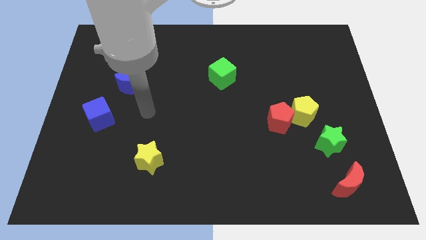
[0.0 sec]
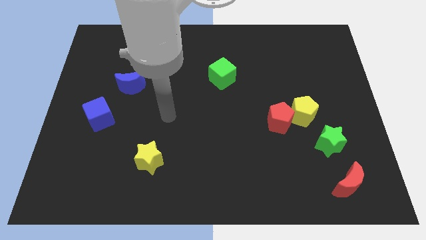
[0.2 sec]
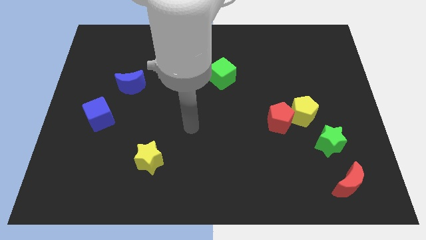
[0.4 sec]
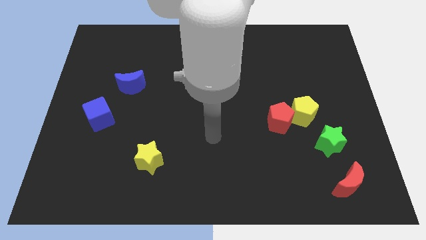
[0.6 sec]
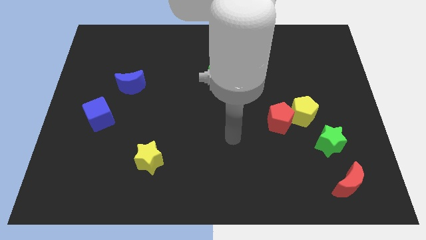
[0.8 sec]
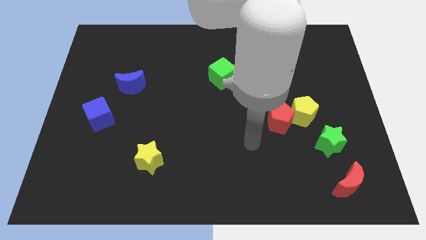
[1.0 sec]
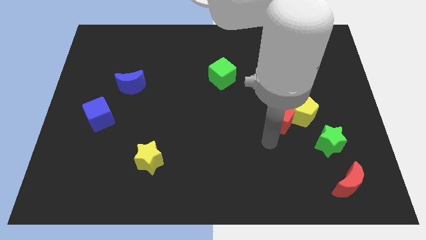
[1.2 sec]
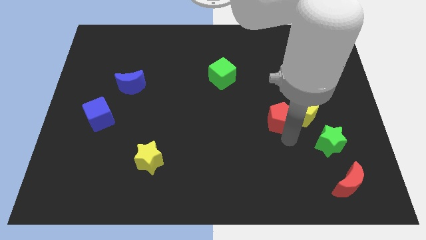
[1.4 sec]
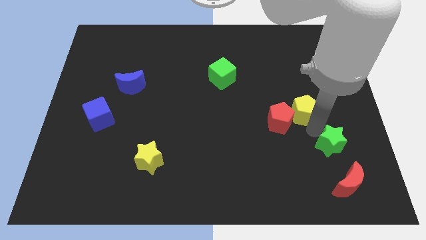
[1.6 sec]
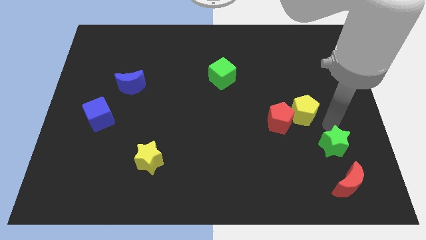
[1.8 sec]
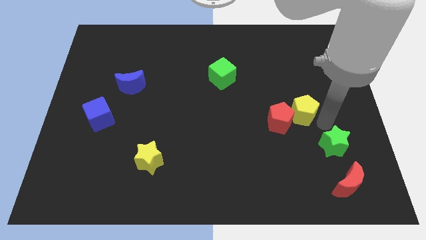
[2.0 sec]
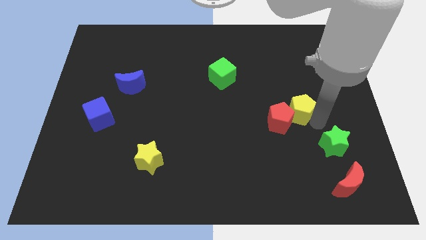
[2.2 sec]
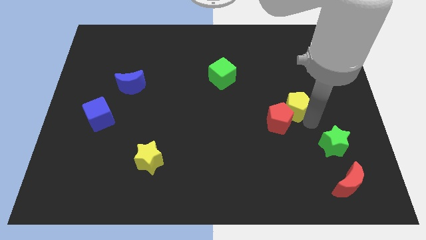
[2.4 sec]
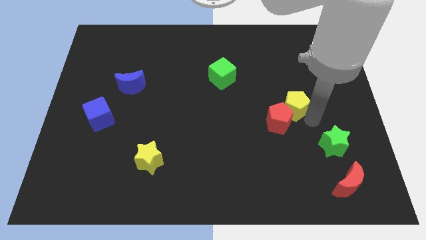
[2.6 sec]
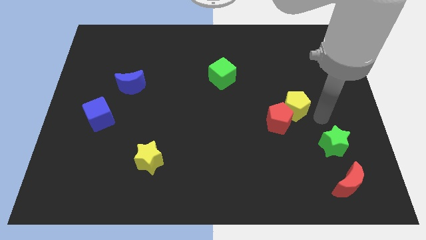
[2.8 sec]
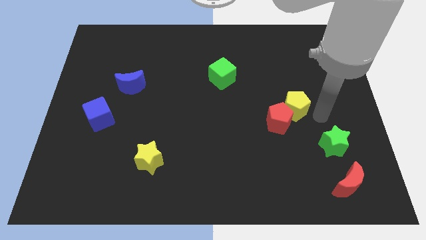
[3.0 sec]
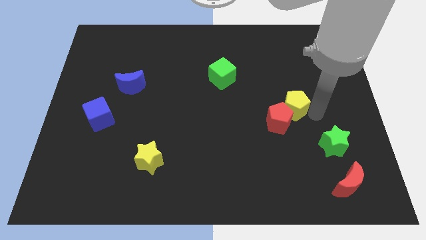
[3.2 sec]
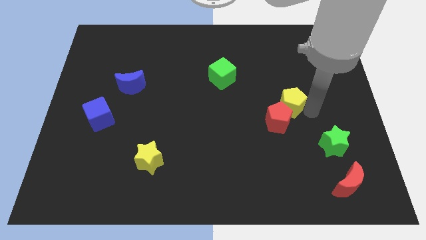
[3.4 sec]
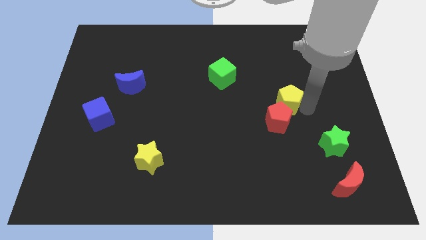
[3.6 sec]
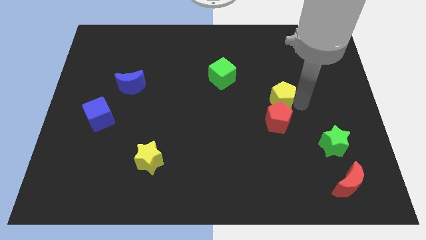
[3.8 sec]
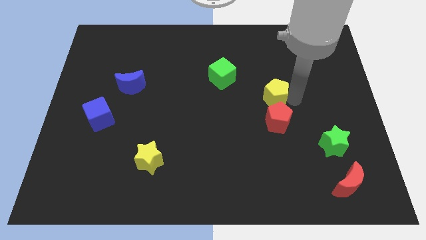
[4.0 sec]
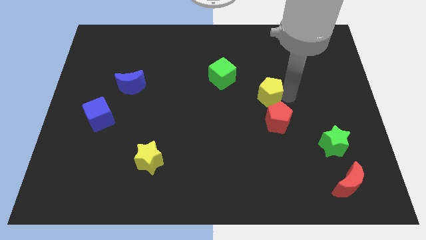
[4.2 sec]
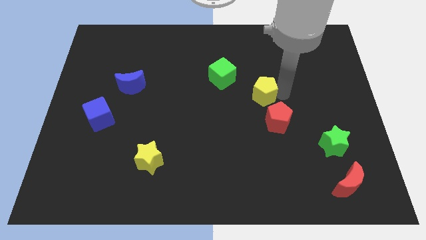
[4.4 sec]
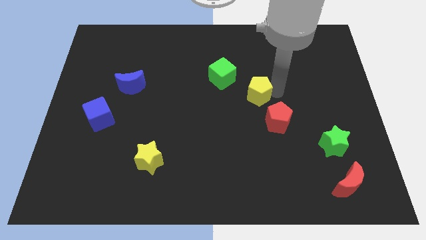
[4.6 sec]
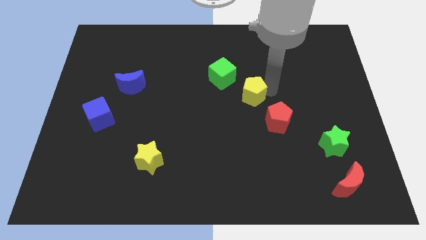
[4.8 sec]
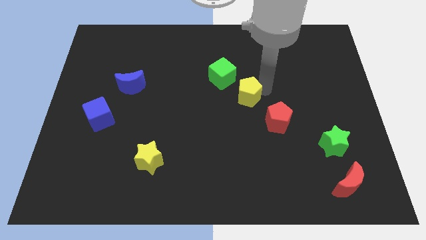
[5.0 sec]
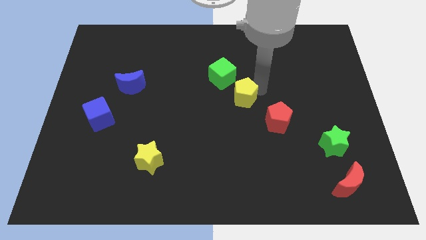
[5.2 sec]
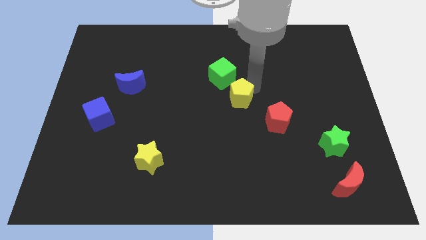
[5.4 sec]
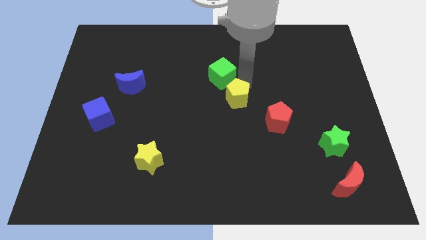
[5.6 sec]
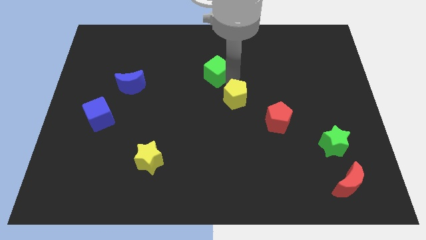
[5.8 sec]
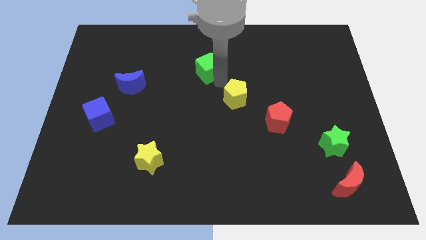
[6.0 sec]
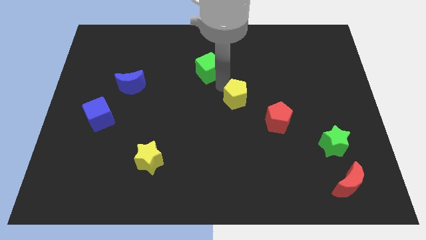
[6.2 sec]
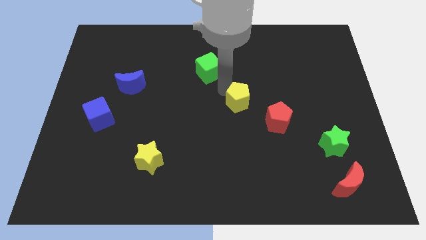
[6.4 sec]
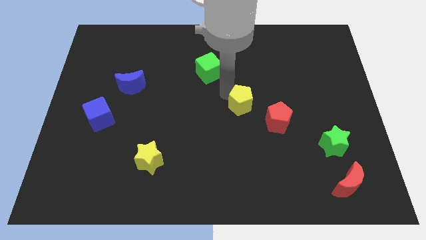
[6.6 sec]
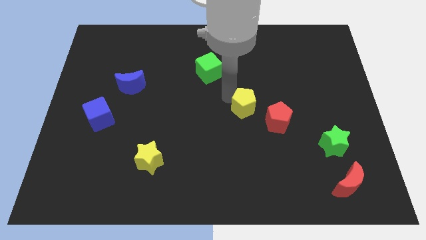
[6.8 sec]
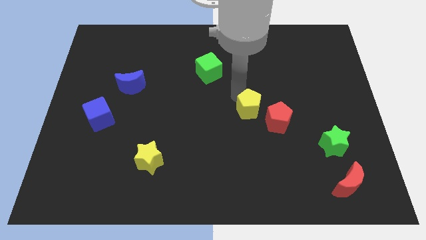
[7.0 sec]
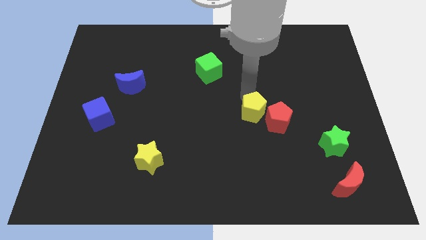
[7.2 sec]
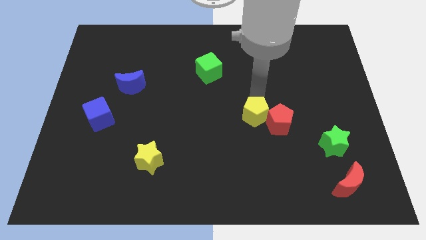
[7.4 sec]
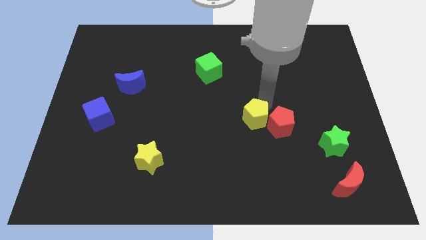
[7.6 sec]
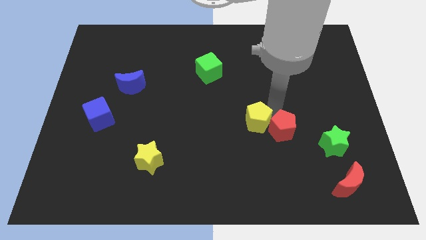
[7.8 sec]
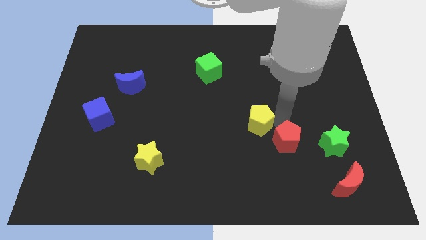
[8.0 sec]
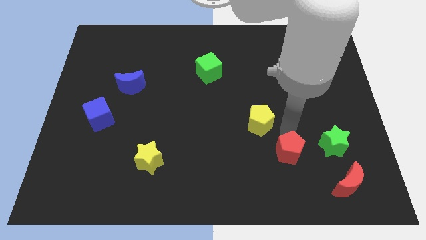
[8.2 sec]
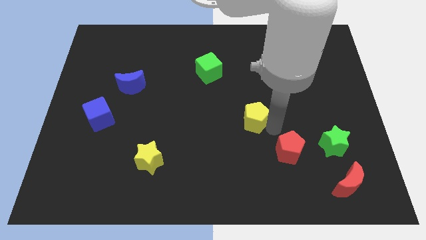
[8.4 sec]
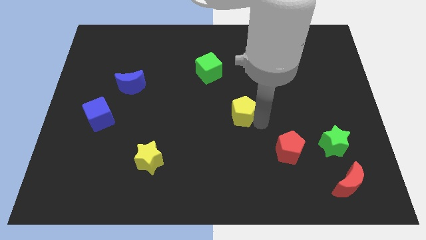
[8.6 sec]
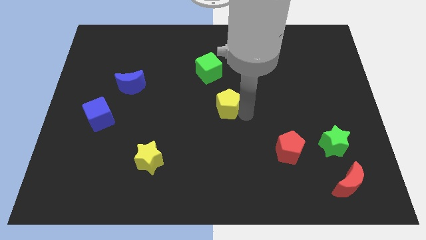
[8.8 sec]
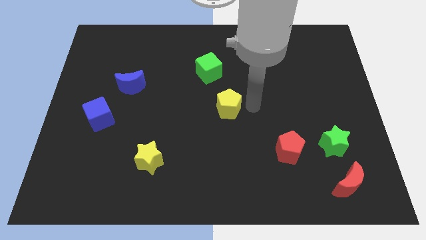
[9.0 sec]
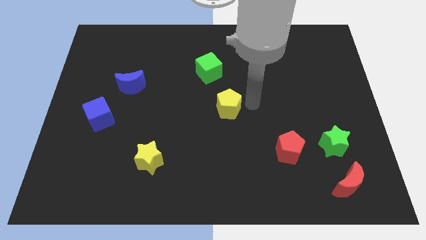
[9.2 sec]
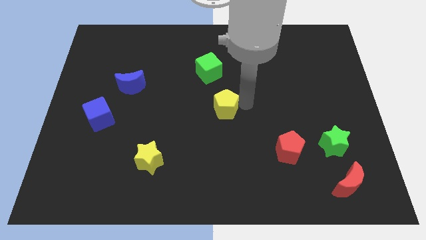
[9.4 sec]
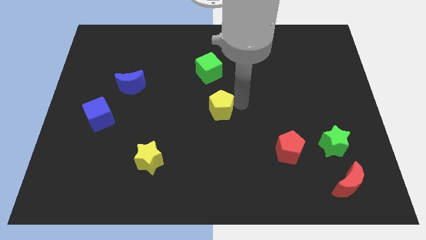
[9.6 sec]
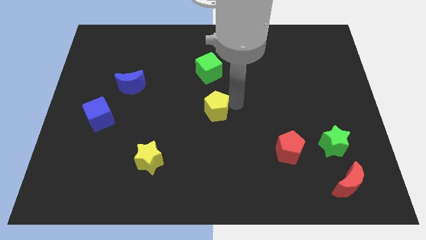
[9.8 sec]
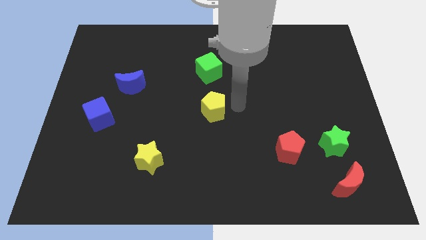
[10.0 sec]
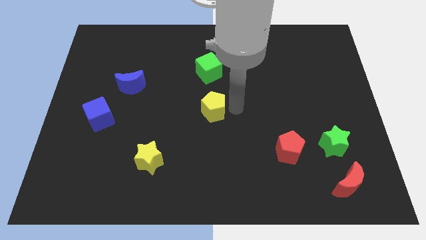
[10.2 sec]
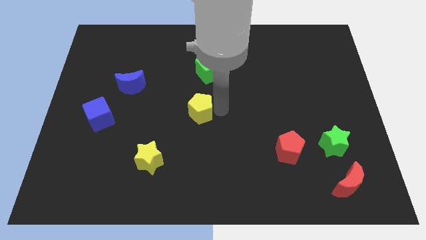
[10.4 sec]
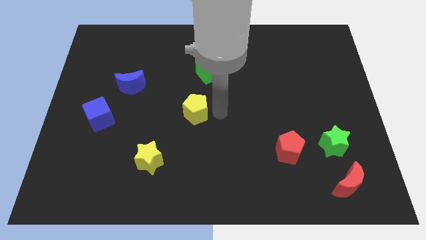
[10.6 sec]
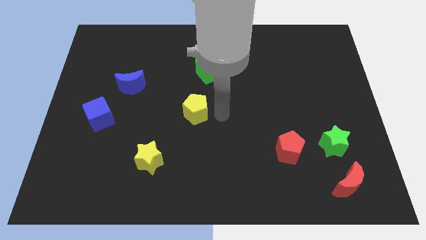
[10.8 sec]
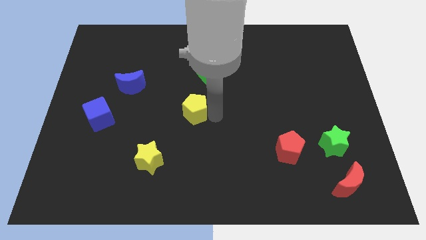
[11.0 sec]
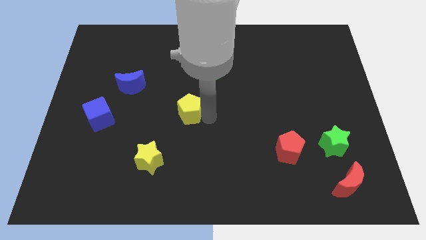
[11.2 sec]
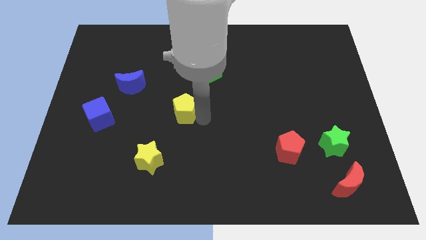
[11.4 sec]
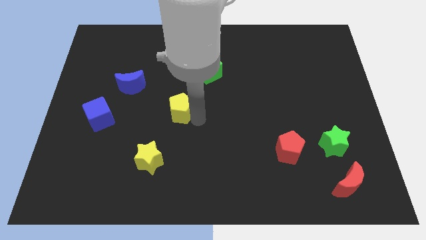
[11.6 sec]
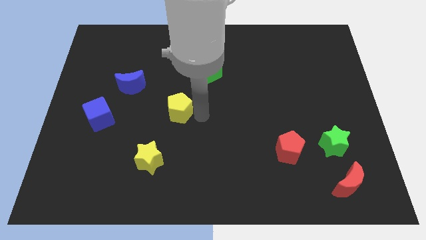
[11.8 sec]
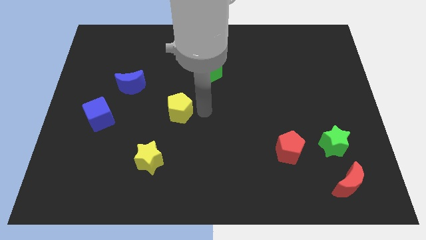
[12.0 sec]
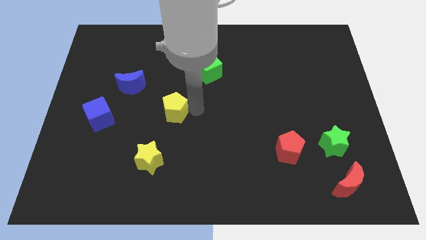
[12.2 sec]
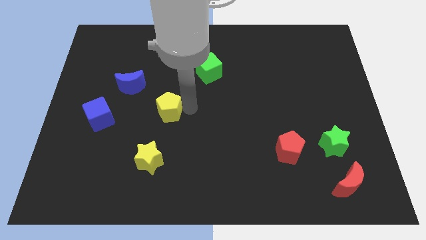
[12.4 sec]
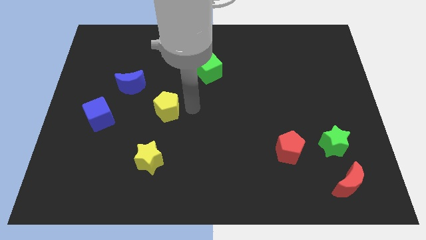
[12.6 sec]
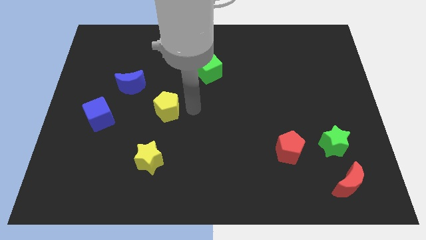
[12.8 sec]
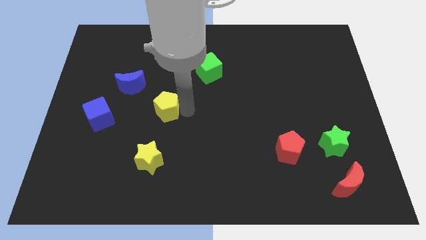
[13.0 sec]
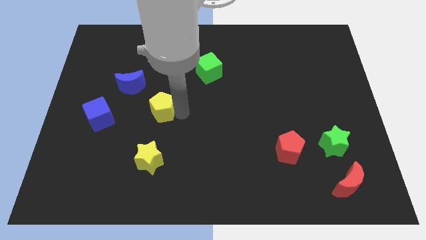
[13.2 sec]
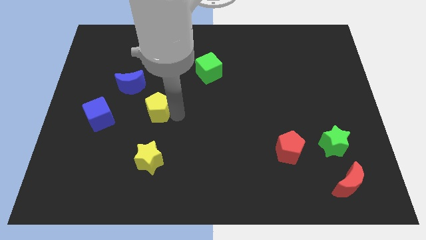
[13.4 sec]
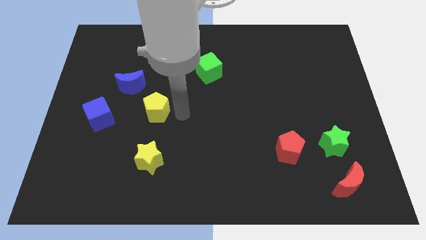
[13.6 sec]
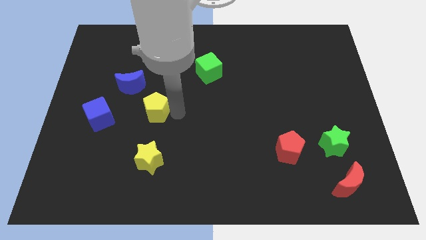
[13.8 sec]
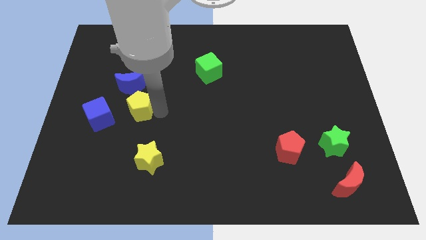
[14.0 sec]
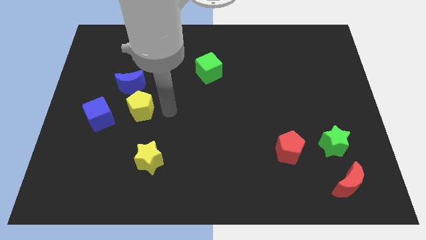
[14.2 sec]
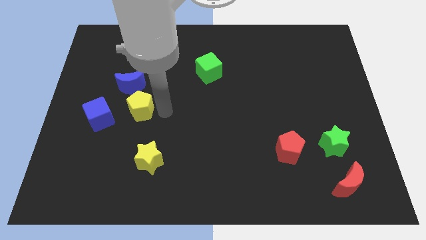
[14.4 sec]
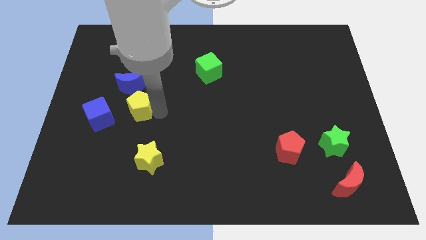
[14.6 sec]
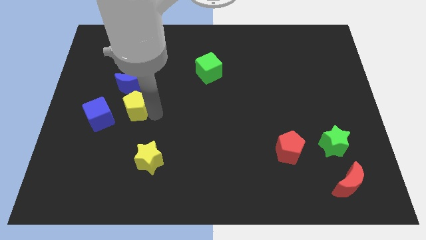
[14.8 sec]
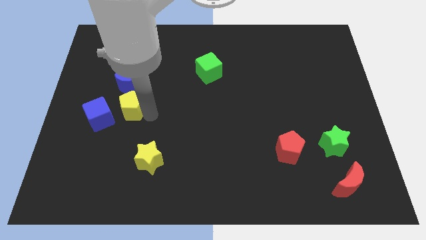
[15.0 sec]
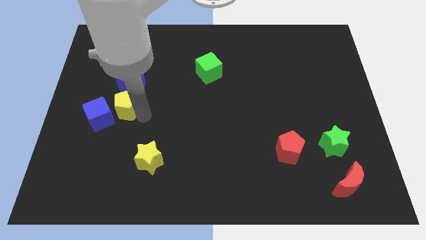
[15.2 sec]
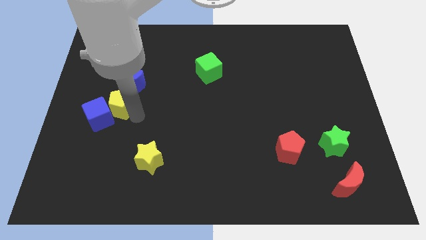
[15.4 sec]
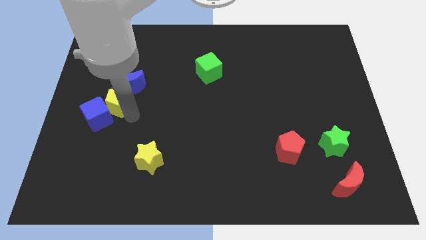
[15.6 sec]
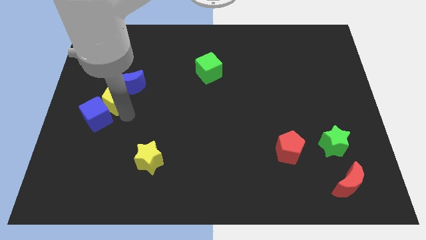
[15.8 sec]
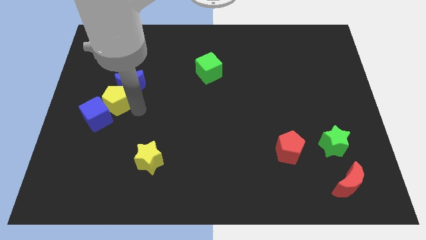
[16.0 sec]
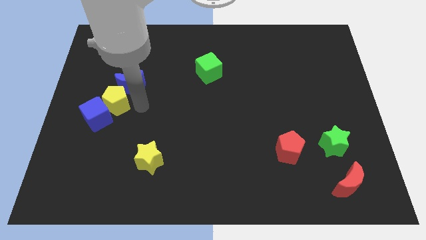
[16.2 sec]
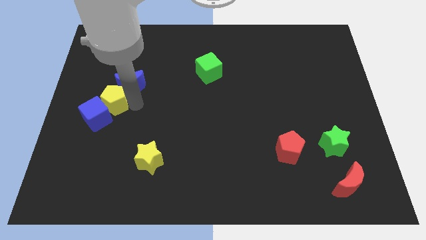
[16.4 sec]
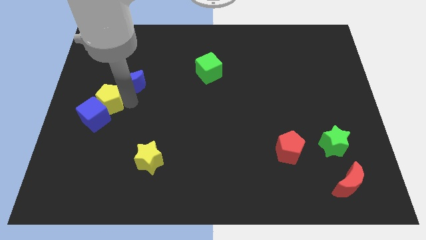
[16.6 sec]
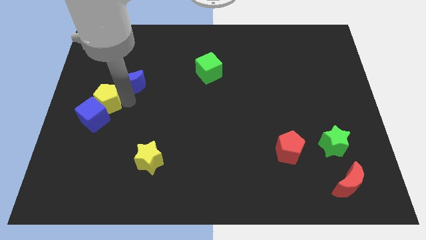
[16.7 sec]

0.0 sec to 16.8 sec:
put the yellow pentagon to the left side
